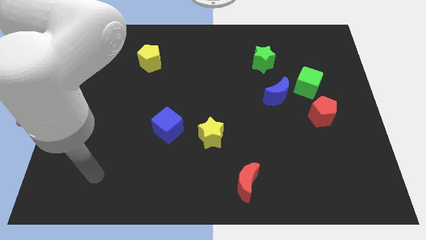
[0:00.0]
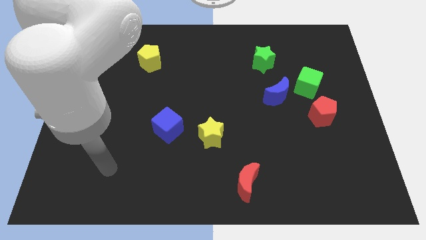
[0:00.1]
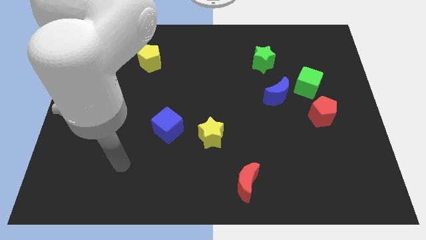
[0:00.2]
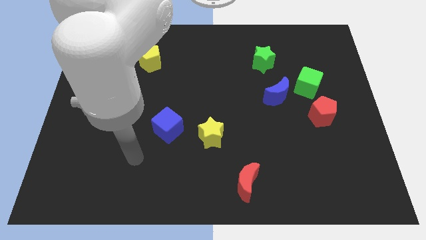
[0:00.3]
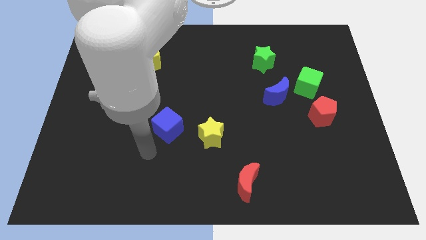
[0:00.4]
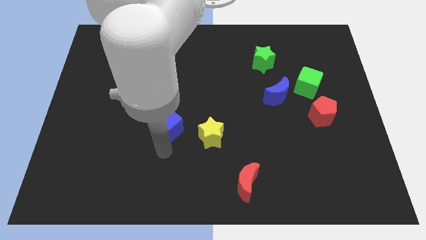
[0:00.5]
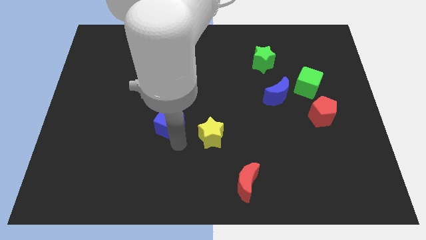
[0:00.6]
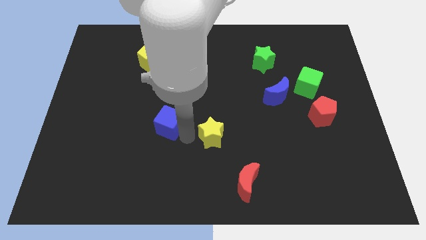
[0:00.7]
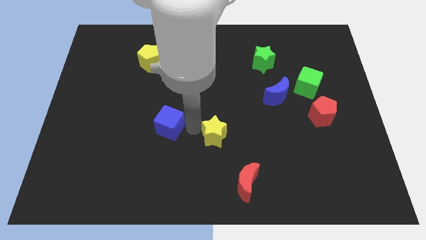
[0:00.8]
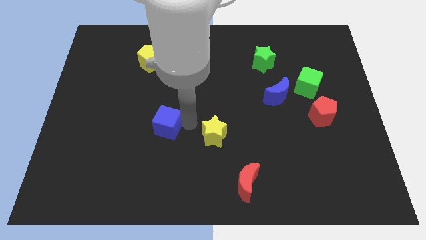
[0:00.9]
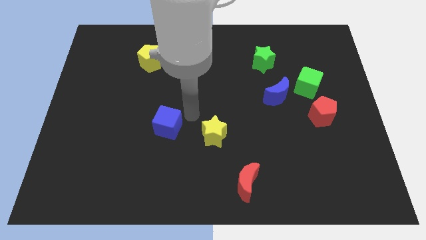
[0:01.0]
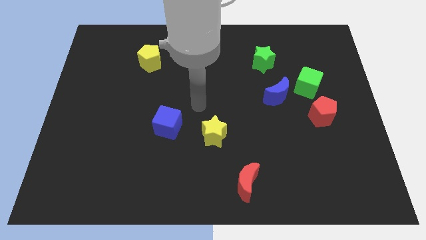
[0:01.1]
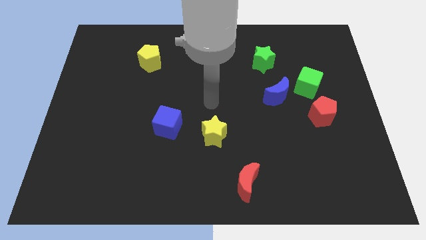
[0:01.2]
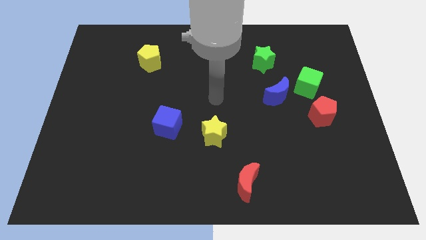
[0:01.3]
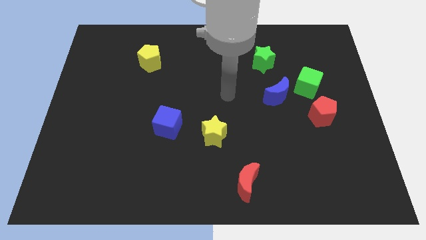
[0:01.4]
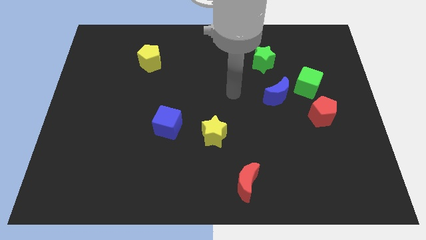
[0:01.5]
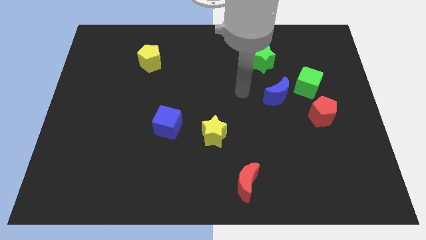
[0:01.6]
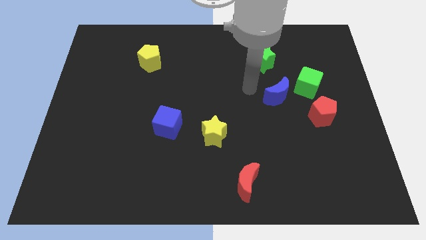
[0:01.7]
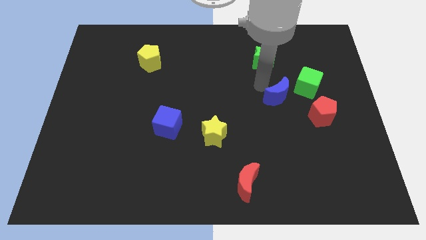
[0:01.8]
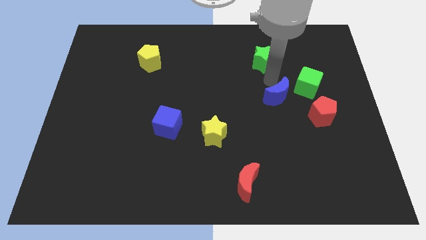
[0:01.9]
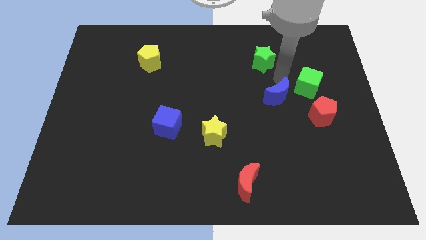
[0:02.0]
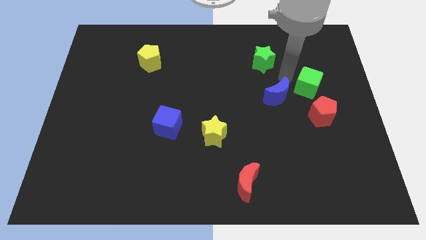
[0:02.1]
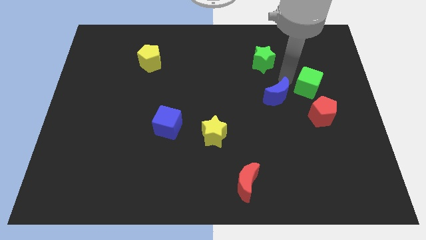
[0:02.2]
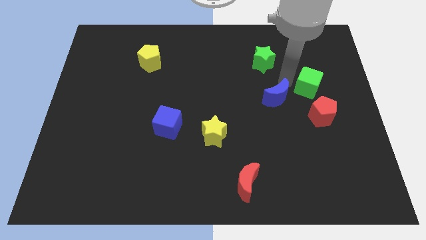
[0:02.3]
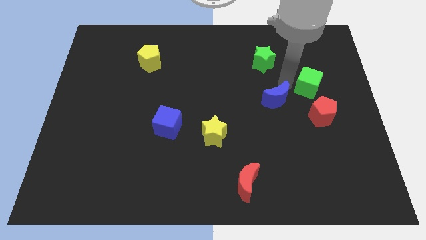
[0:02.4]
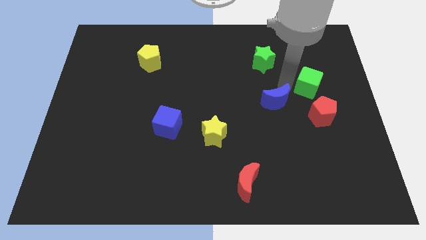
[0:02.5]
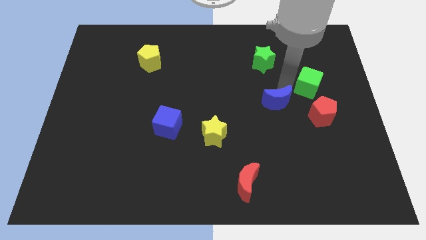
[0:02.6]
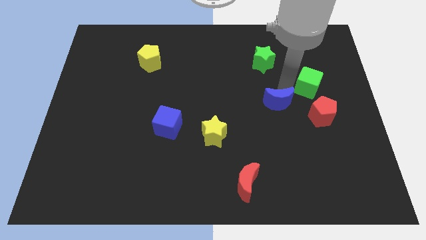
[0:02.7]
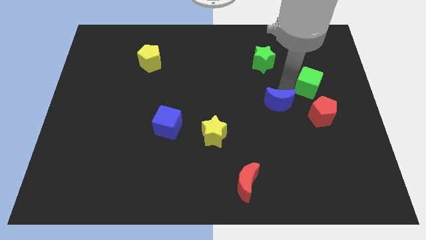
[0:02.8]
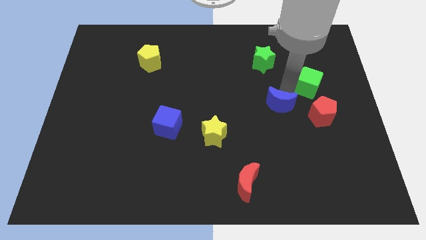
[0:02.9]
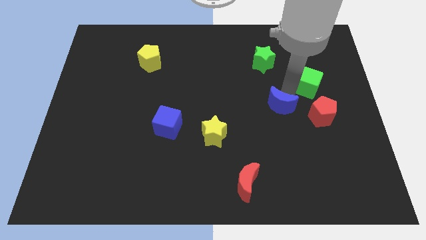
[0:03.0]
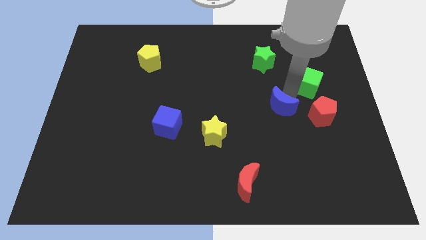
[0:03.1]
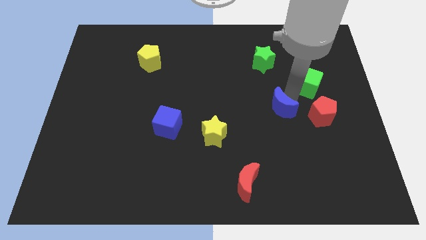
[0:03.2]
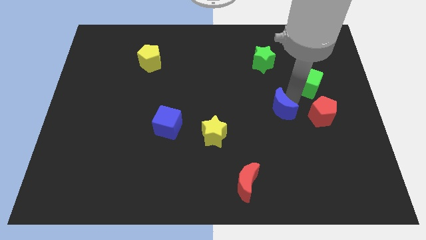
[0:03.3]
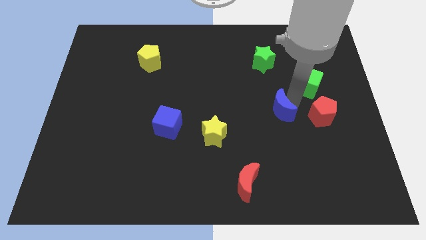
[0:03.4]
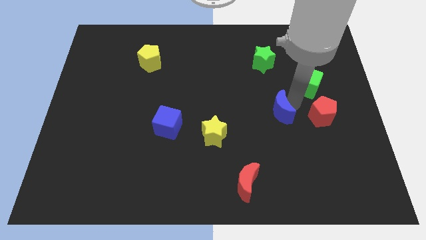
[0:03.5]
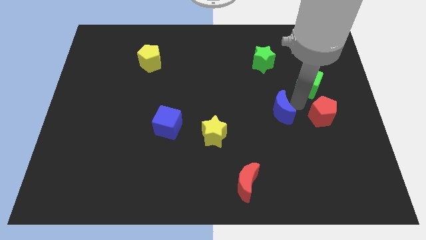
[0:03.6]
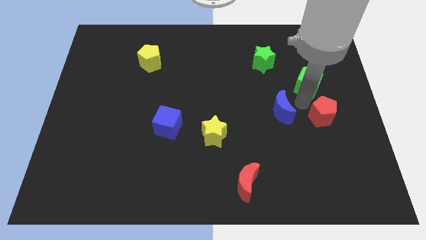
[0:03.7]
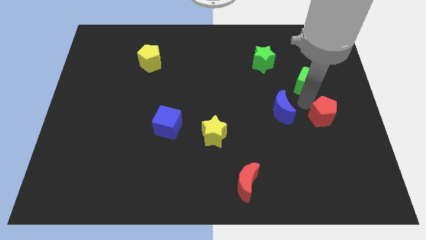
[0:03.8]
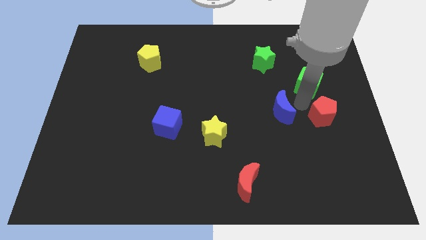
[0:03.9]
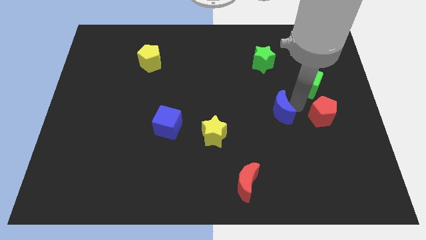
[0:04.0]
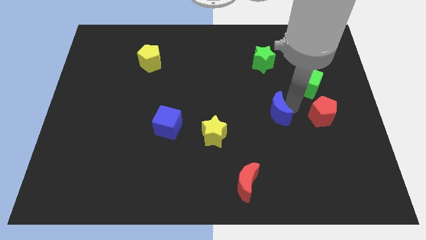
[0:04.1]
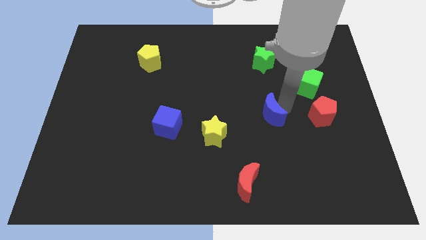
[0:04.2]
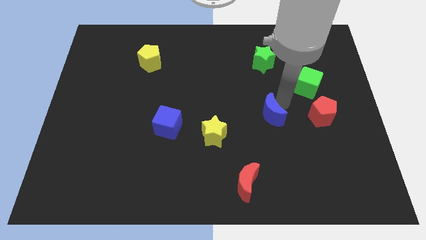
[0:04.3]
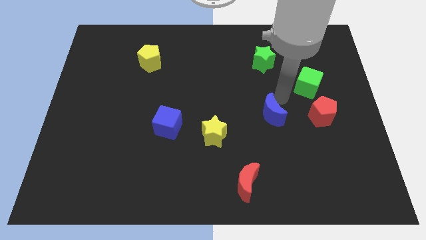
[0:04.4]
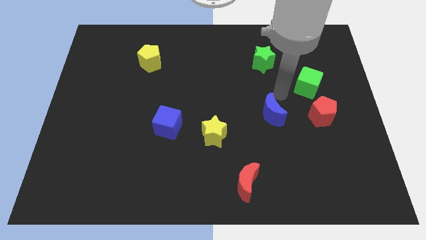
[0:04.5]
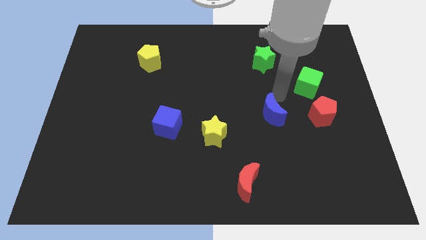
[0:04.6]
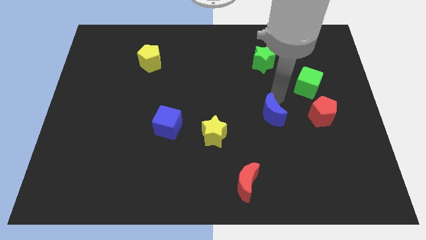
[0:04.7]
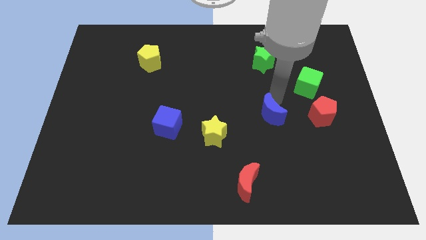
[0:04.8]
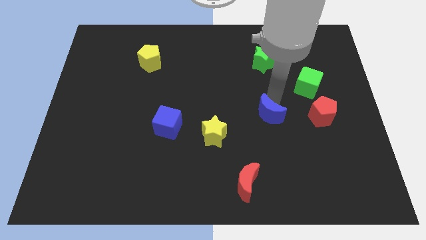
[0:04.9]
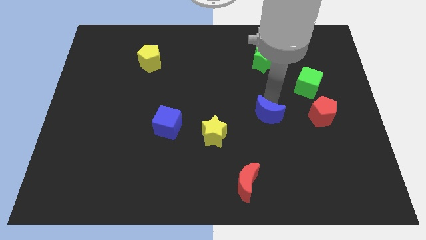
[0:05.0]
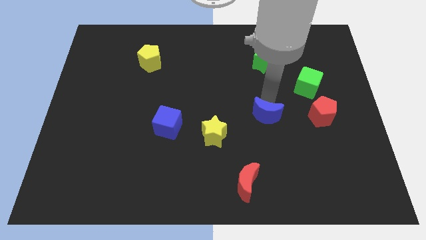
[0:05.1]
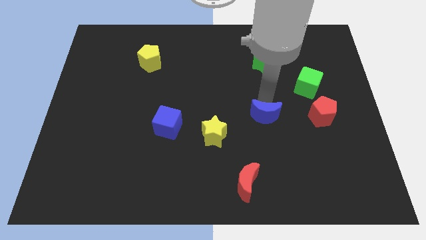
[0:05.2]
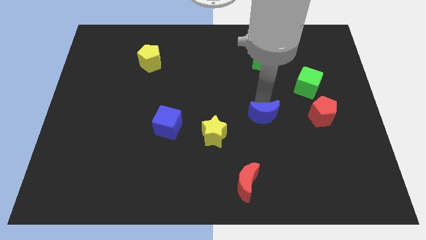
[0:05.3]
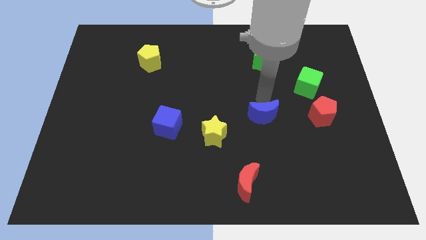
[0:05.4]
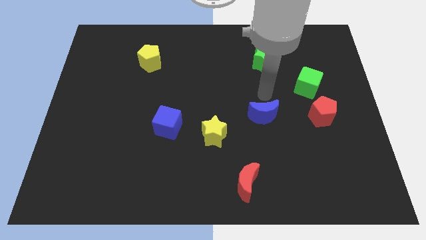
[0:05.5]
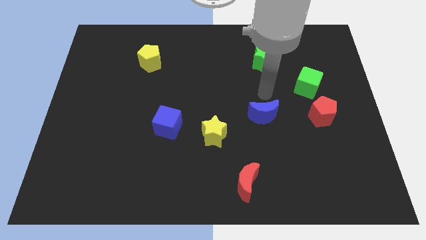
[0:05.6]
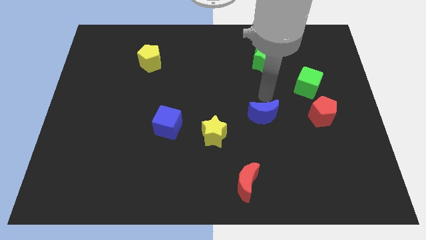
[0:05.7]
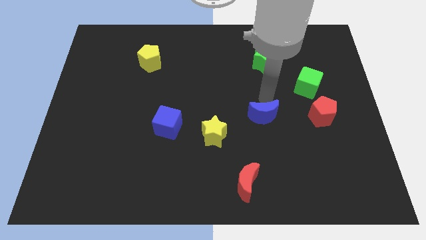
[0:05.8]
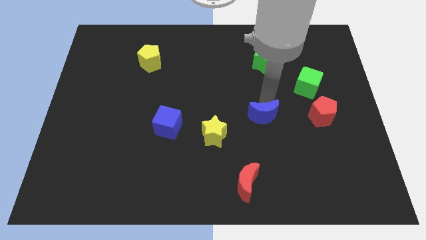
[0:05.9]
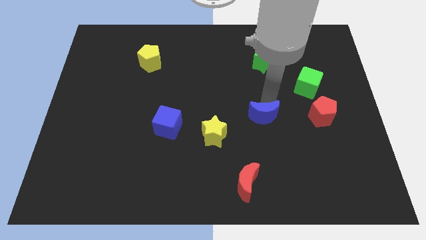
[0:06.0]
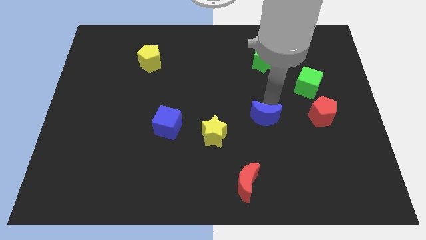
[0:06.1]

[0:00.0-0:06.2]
slide the blue moon right of the yellow star

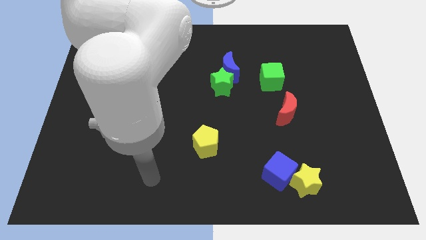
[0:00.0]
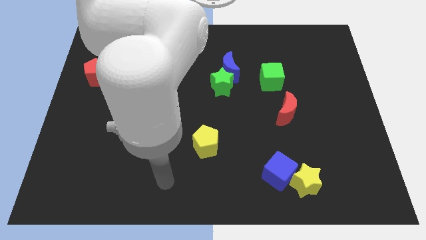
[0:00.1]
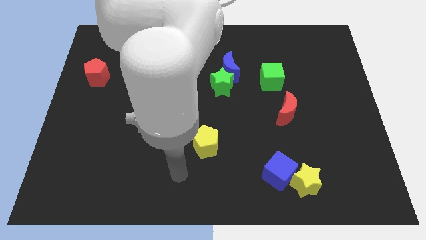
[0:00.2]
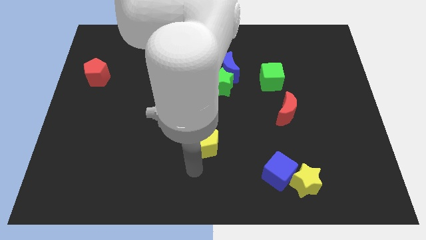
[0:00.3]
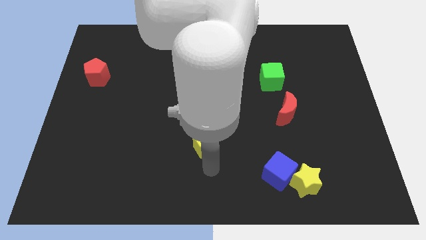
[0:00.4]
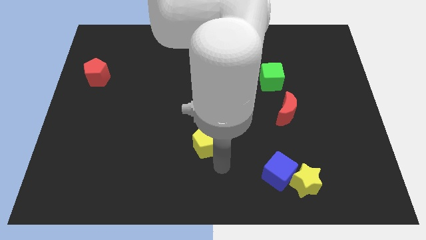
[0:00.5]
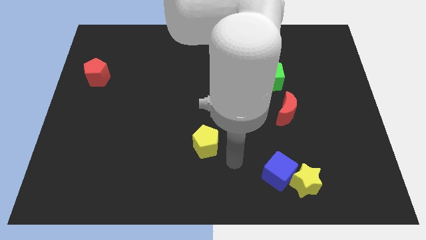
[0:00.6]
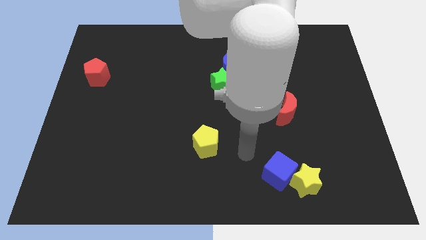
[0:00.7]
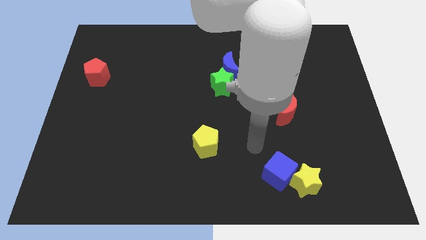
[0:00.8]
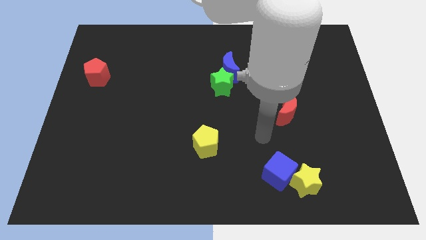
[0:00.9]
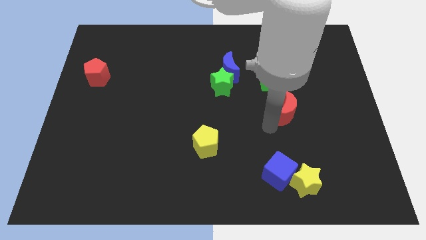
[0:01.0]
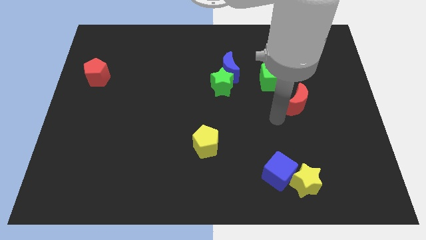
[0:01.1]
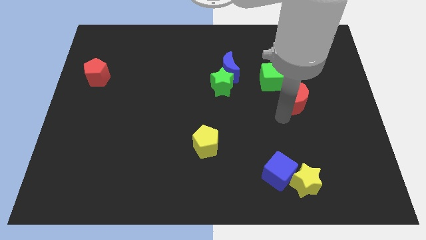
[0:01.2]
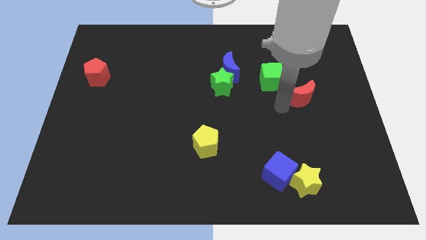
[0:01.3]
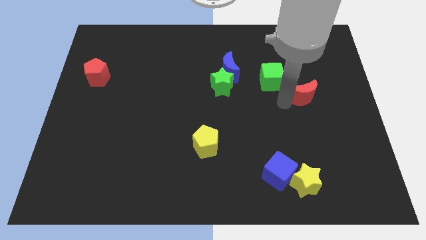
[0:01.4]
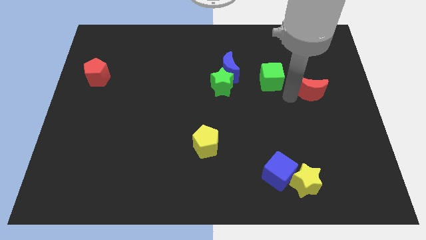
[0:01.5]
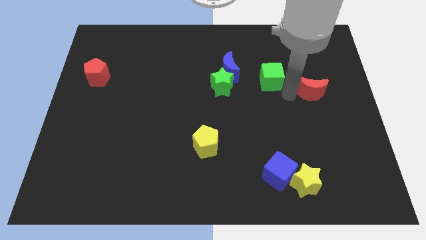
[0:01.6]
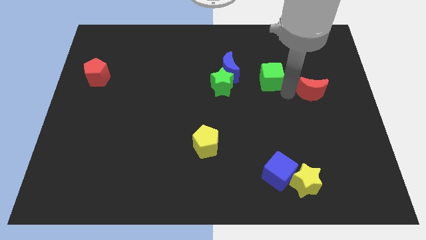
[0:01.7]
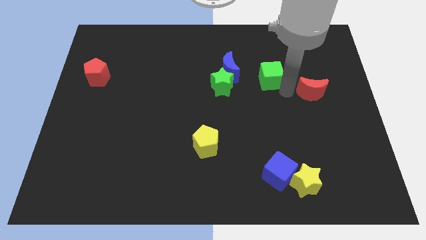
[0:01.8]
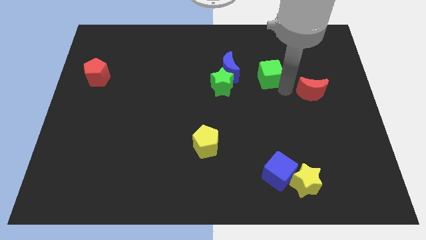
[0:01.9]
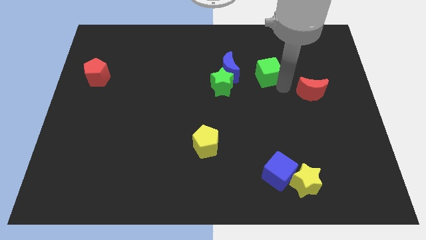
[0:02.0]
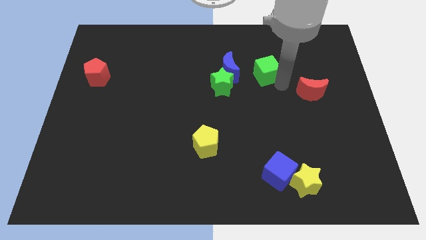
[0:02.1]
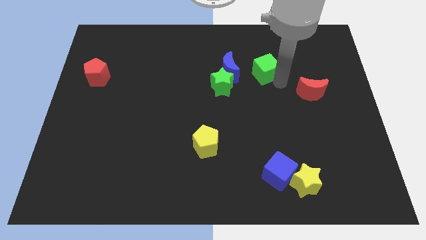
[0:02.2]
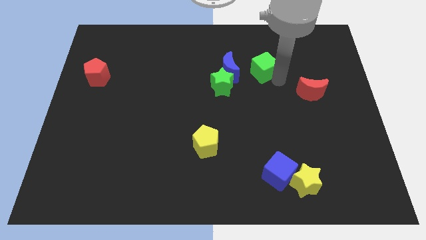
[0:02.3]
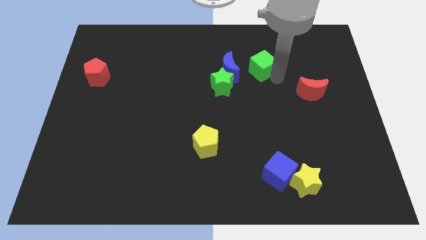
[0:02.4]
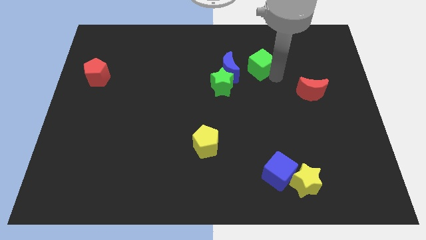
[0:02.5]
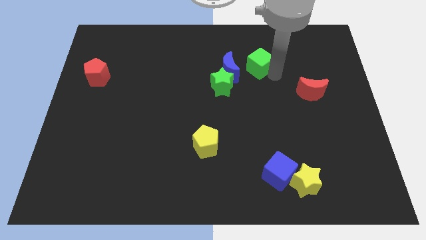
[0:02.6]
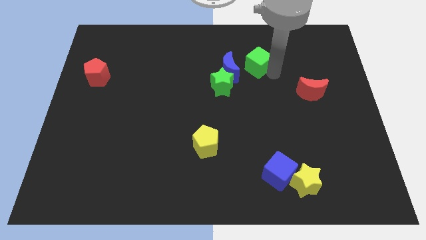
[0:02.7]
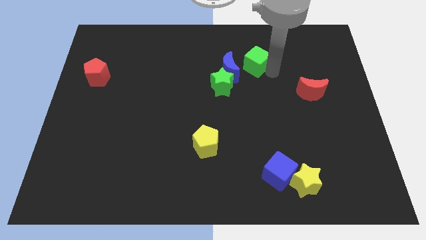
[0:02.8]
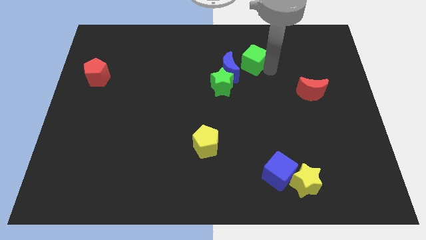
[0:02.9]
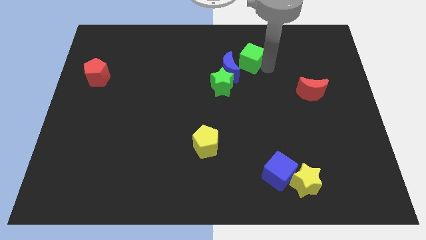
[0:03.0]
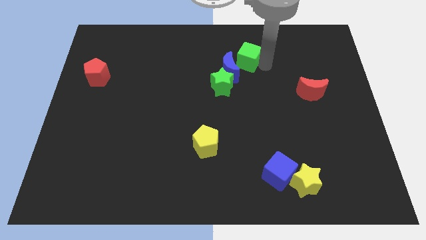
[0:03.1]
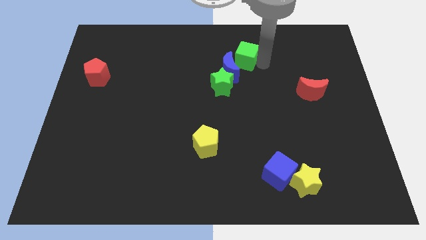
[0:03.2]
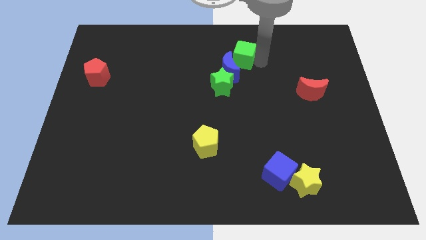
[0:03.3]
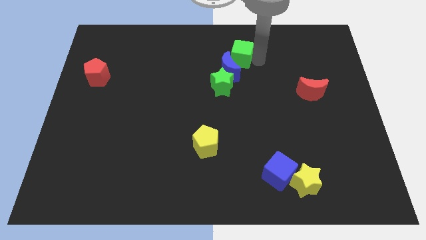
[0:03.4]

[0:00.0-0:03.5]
put the green cube above the green star
